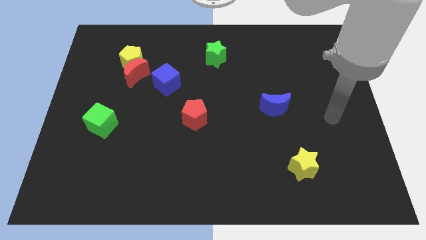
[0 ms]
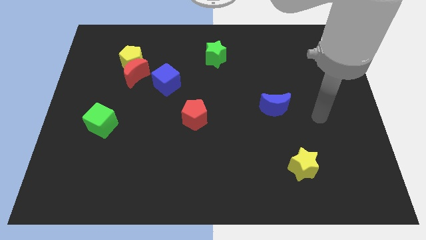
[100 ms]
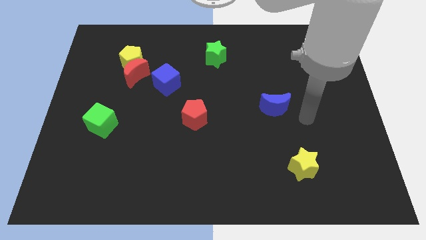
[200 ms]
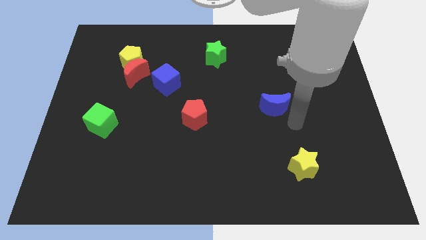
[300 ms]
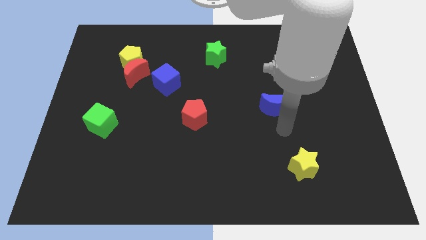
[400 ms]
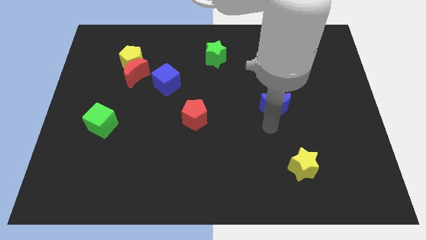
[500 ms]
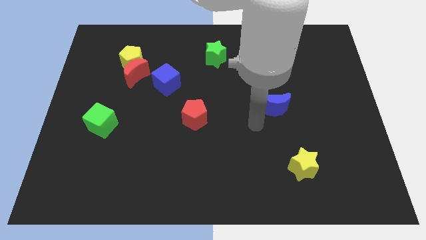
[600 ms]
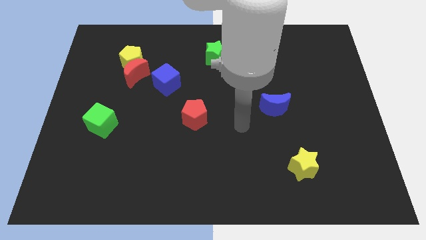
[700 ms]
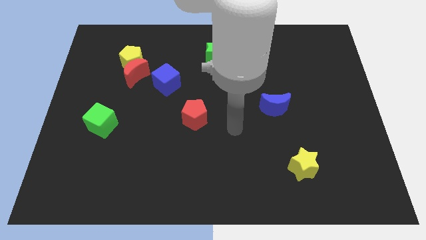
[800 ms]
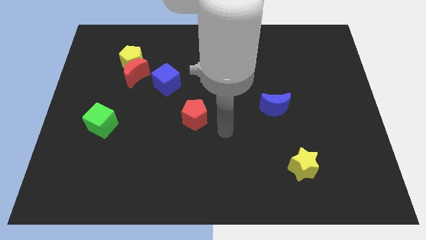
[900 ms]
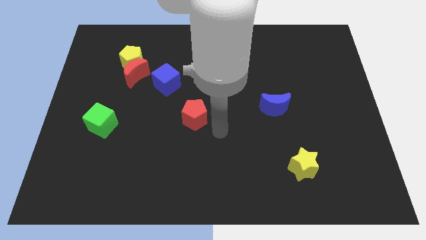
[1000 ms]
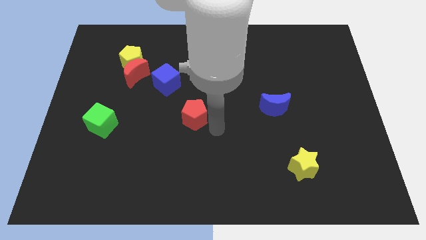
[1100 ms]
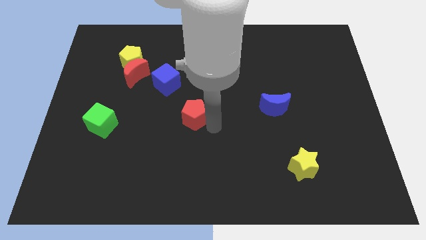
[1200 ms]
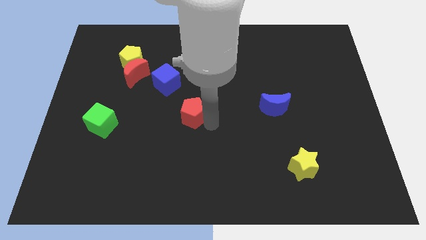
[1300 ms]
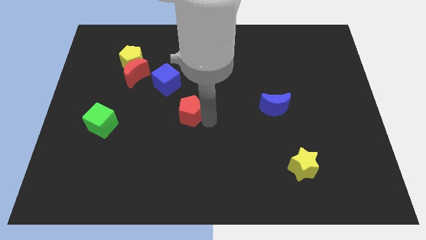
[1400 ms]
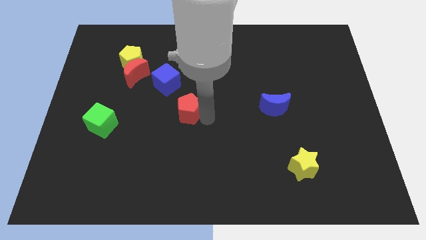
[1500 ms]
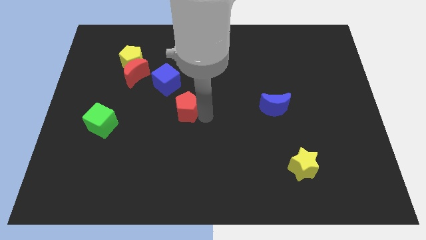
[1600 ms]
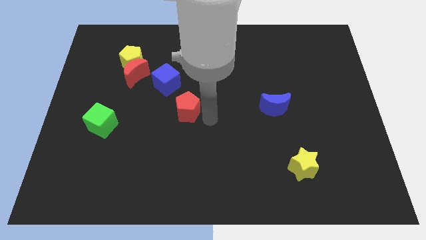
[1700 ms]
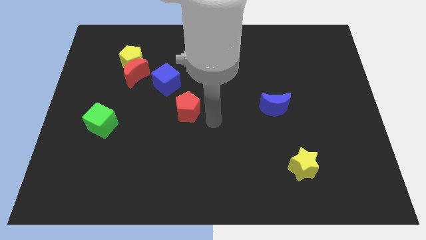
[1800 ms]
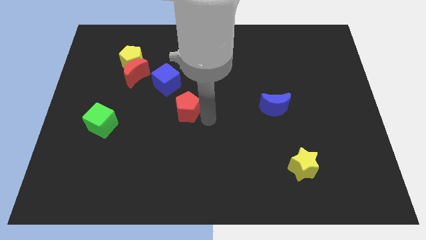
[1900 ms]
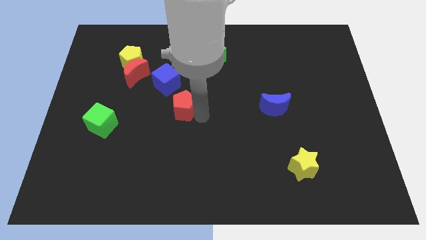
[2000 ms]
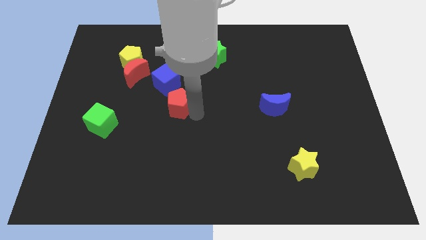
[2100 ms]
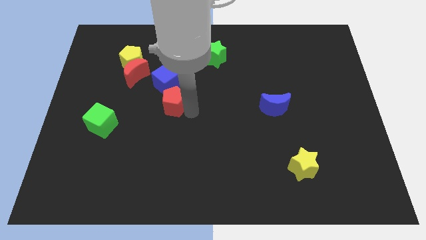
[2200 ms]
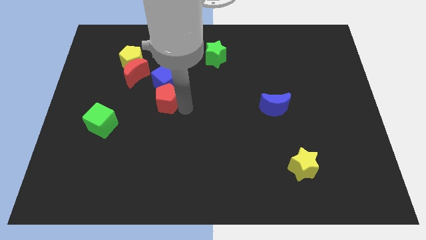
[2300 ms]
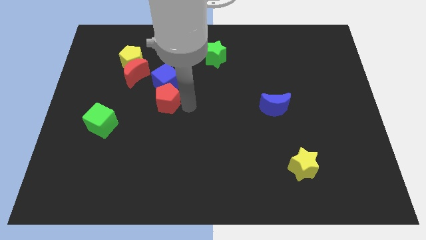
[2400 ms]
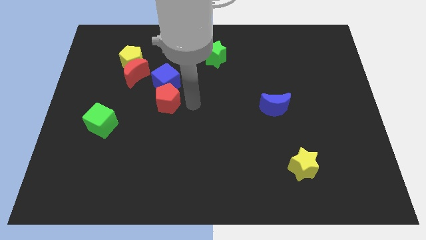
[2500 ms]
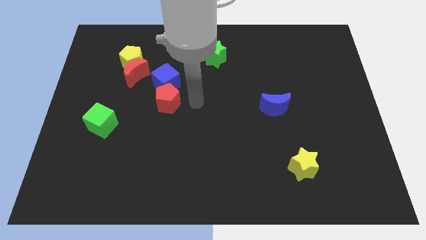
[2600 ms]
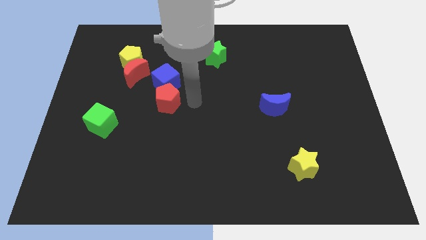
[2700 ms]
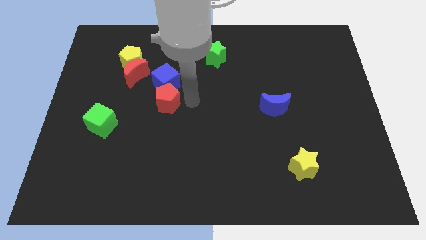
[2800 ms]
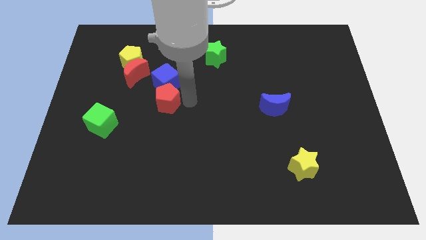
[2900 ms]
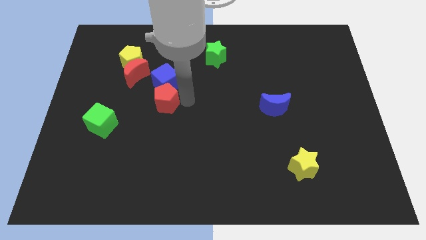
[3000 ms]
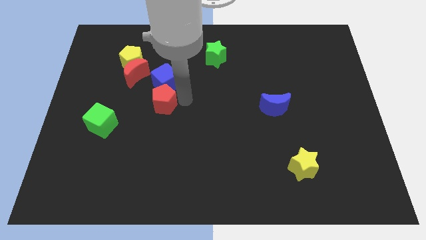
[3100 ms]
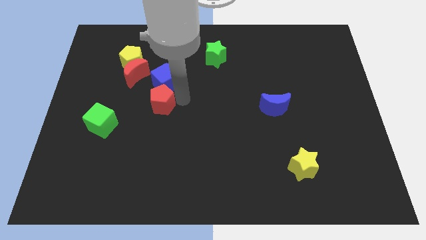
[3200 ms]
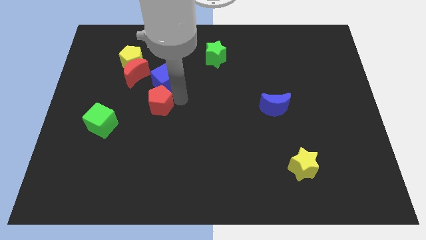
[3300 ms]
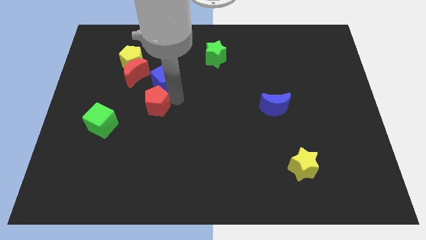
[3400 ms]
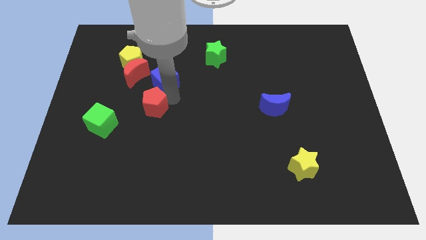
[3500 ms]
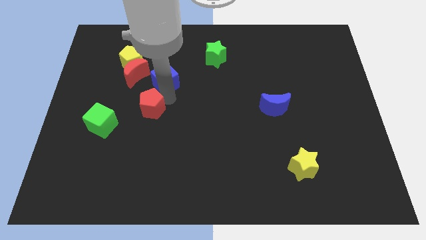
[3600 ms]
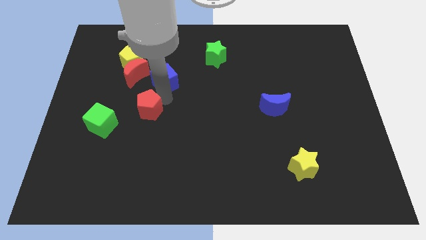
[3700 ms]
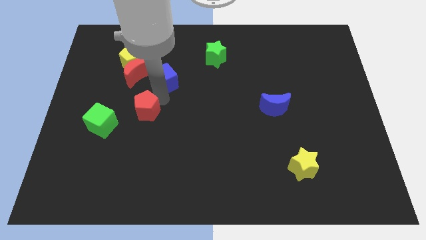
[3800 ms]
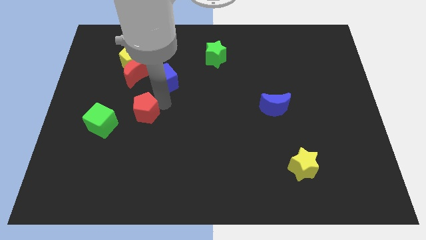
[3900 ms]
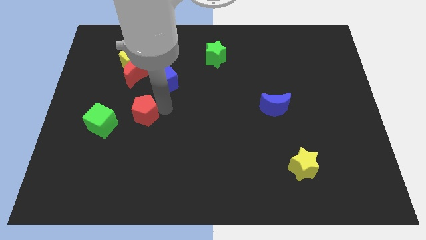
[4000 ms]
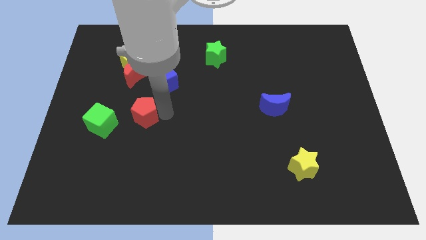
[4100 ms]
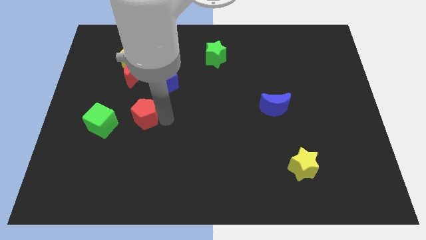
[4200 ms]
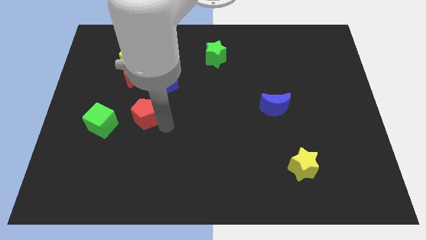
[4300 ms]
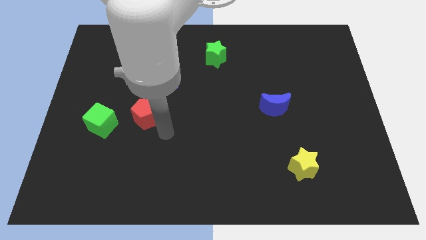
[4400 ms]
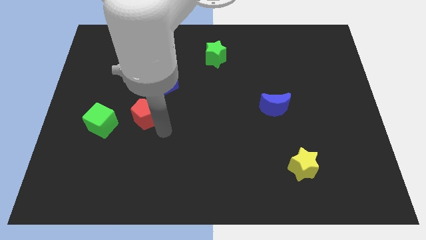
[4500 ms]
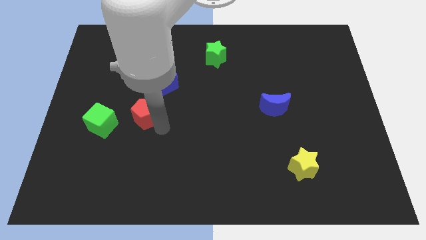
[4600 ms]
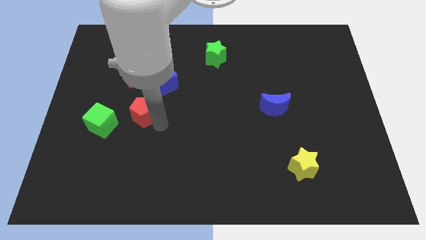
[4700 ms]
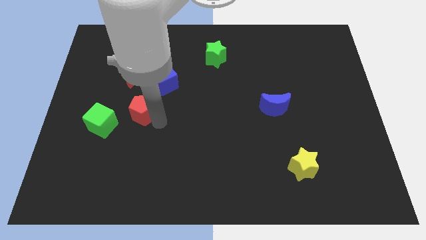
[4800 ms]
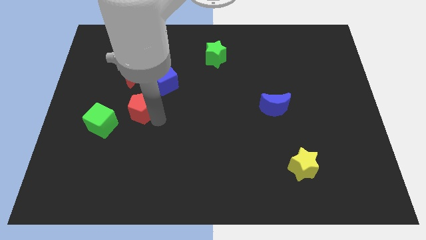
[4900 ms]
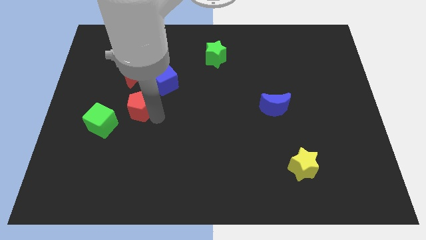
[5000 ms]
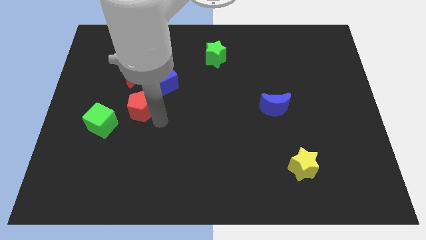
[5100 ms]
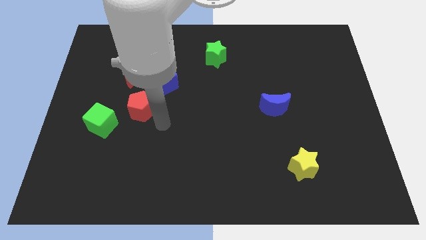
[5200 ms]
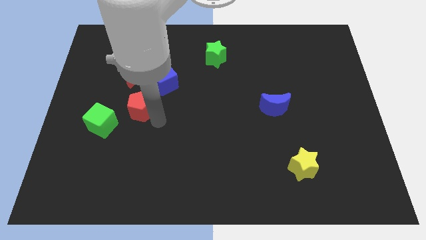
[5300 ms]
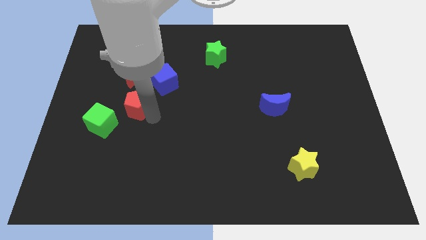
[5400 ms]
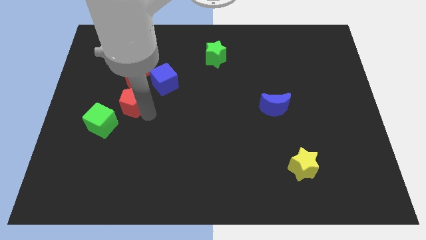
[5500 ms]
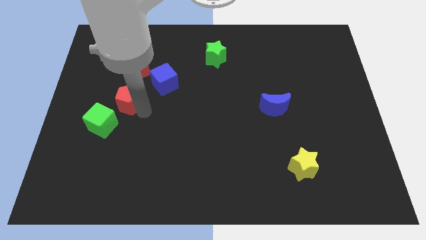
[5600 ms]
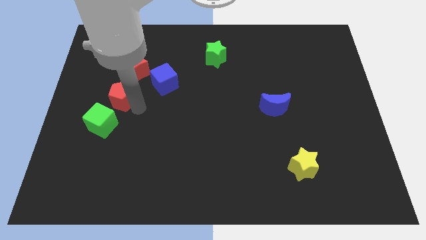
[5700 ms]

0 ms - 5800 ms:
push the red pentagon above the green cube

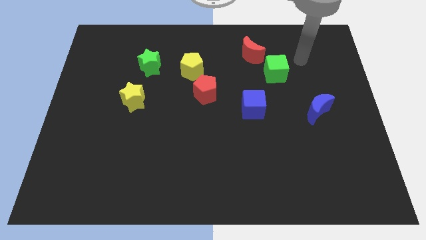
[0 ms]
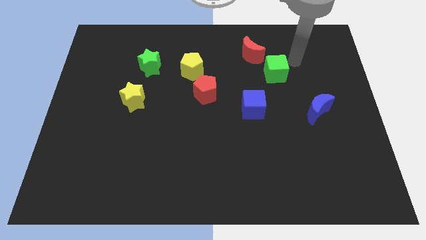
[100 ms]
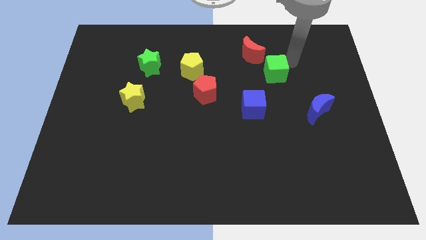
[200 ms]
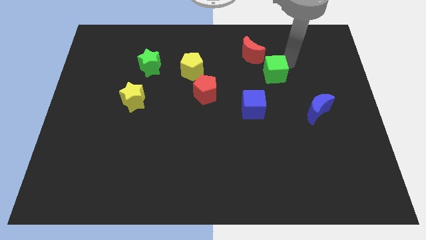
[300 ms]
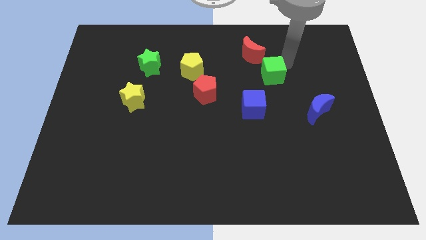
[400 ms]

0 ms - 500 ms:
slide the green cube to the bottom of the red moon
